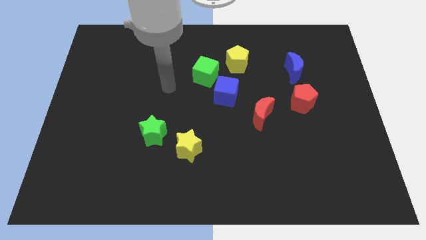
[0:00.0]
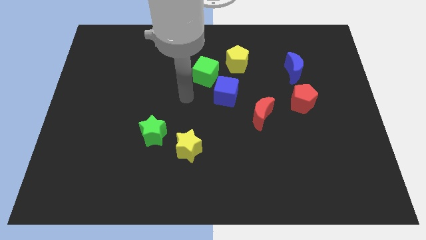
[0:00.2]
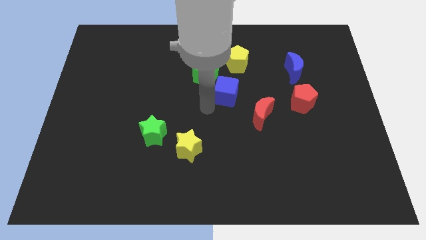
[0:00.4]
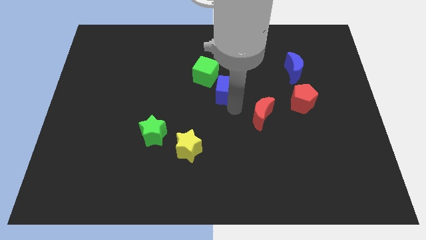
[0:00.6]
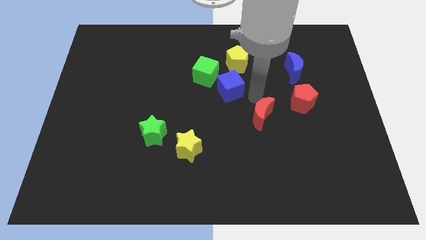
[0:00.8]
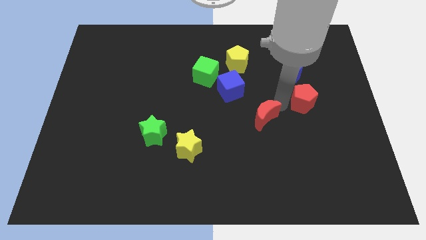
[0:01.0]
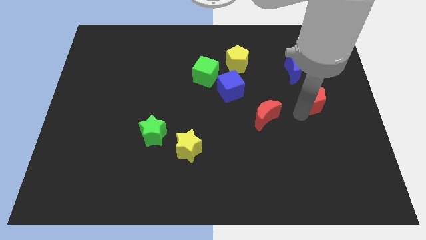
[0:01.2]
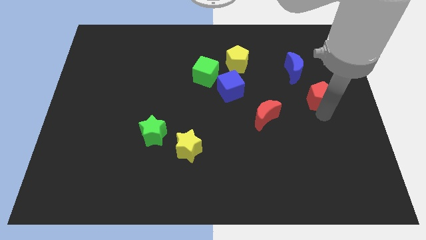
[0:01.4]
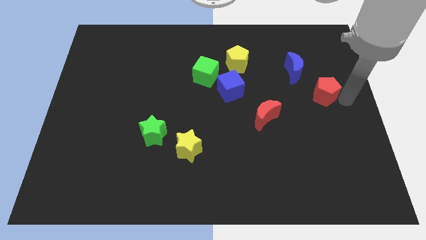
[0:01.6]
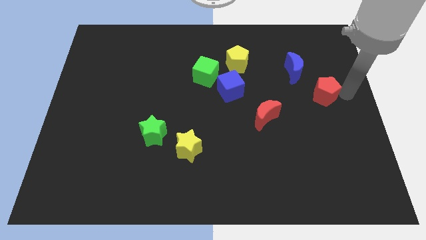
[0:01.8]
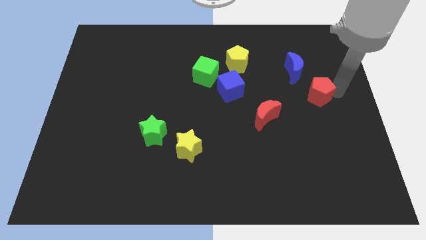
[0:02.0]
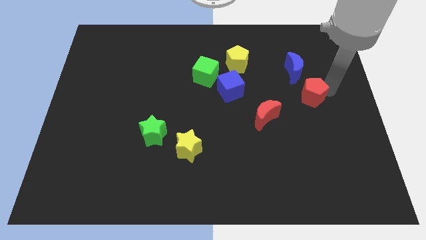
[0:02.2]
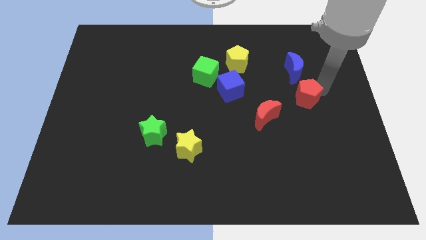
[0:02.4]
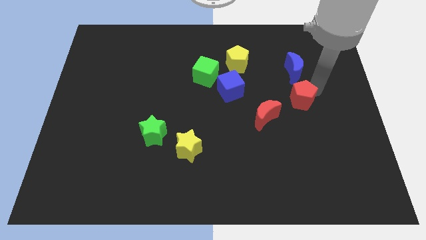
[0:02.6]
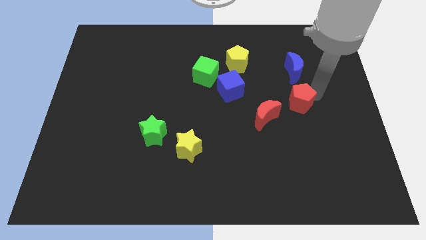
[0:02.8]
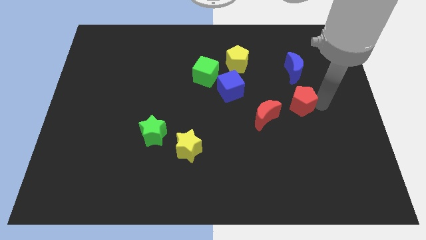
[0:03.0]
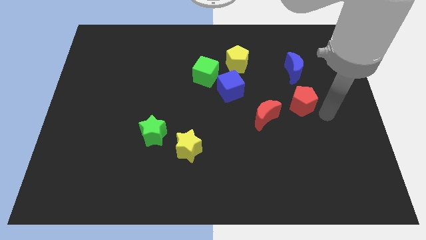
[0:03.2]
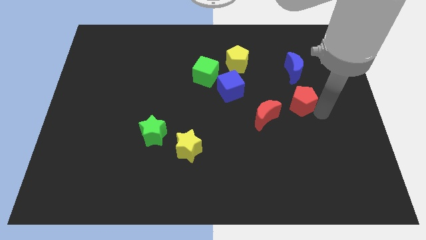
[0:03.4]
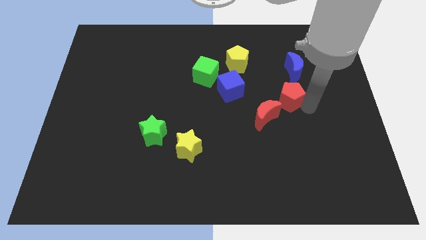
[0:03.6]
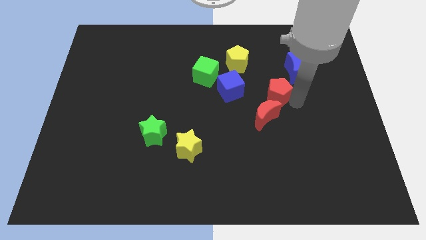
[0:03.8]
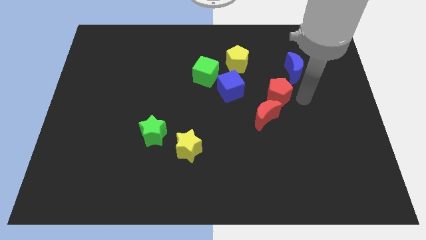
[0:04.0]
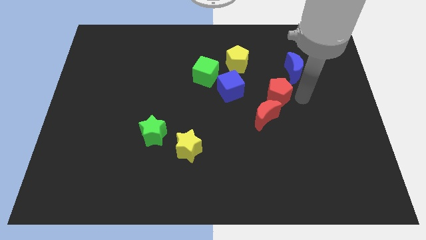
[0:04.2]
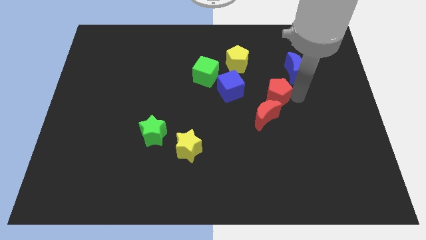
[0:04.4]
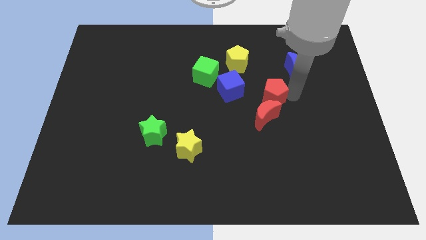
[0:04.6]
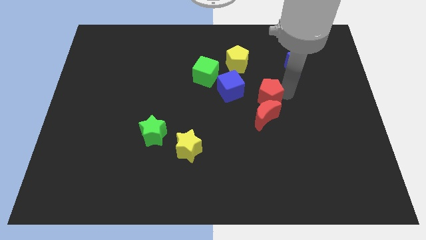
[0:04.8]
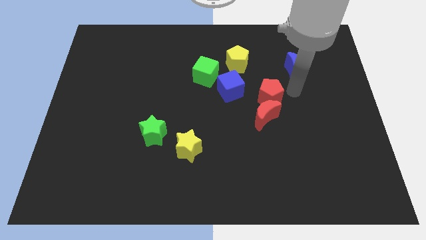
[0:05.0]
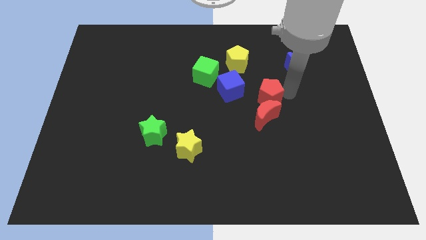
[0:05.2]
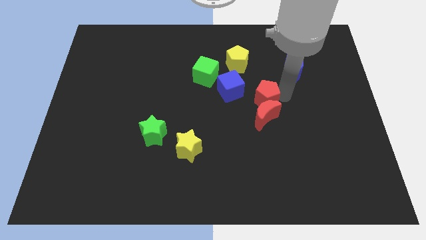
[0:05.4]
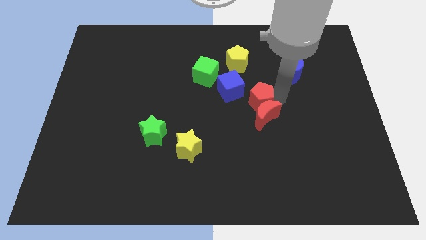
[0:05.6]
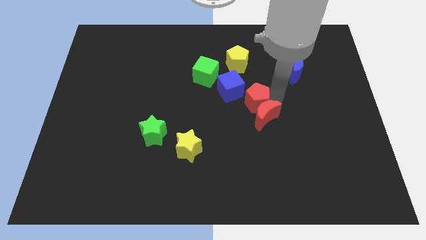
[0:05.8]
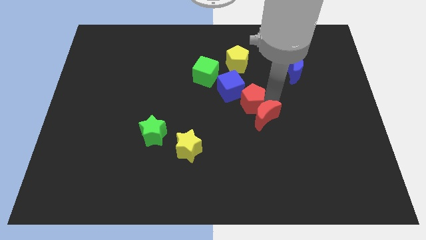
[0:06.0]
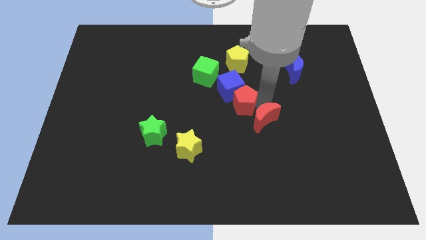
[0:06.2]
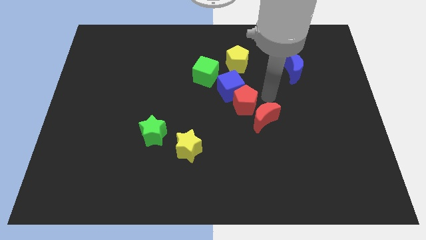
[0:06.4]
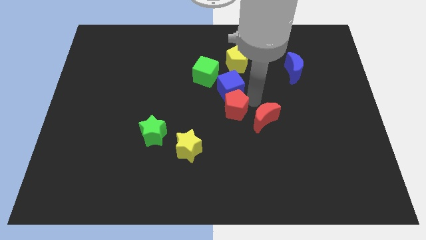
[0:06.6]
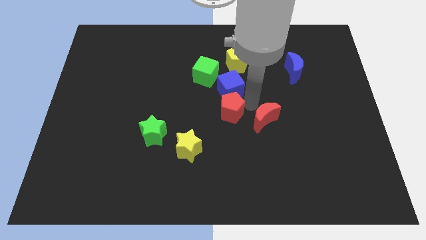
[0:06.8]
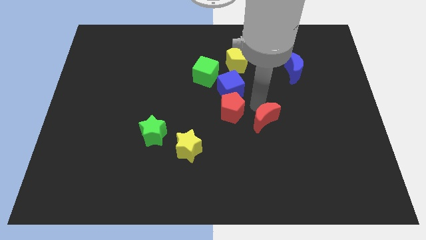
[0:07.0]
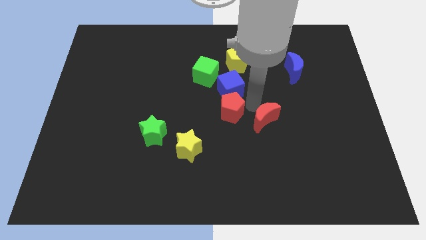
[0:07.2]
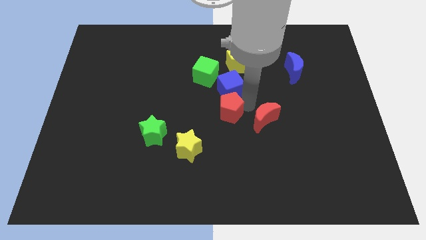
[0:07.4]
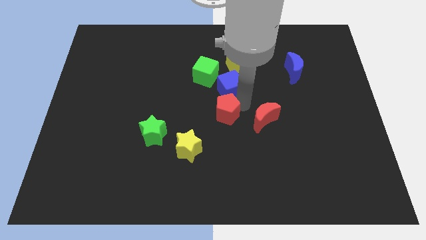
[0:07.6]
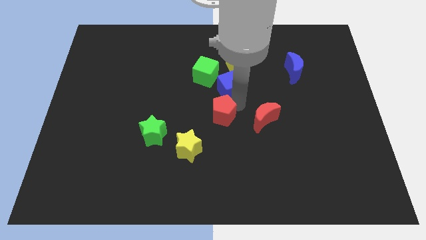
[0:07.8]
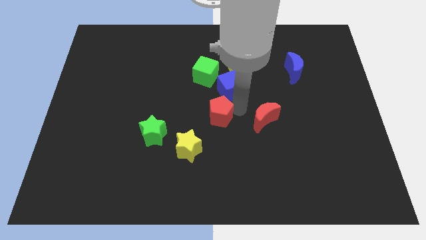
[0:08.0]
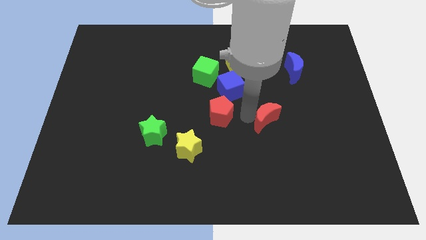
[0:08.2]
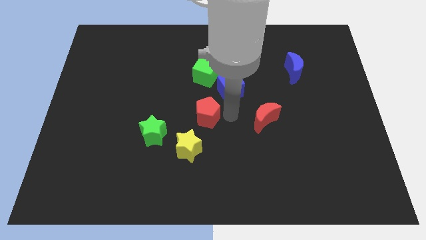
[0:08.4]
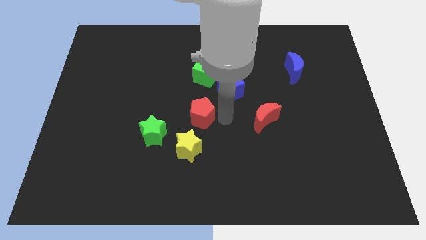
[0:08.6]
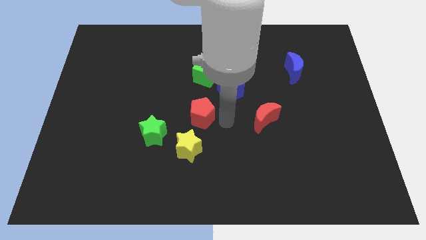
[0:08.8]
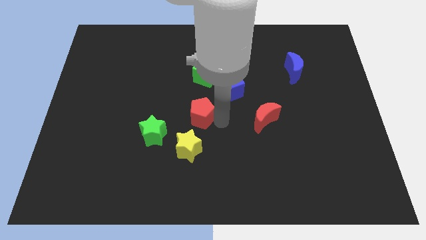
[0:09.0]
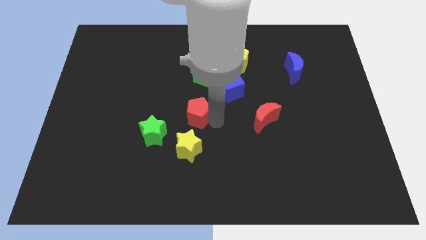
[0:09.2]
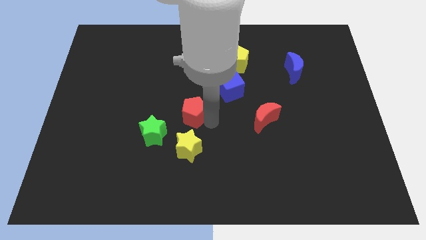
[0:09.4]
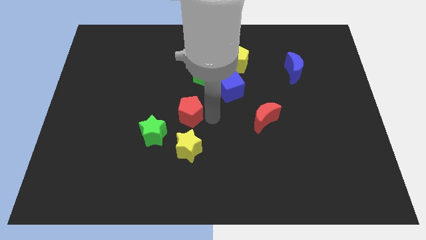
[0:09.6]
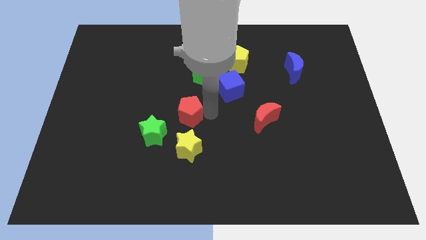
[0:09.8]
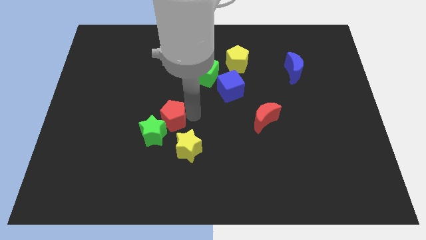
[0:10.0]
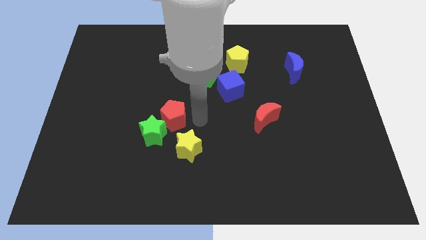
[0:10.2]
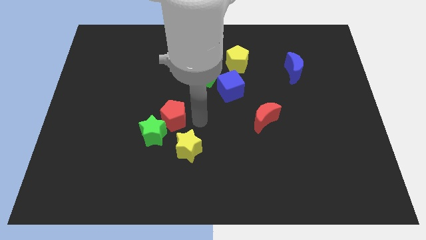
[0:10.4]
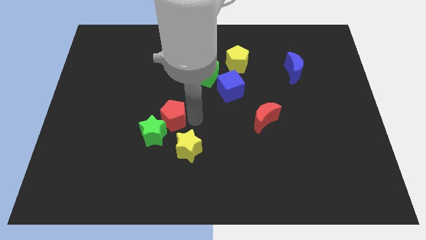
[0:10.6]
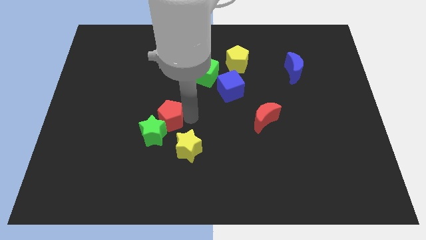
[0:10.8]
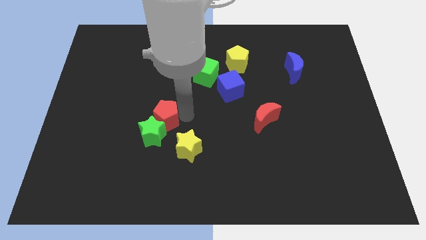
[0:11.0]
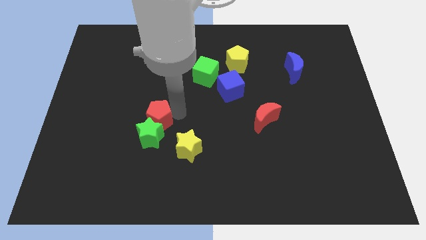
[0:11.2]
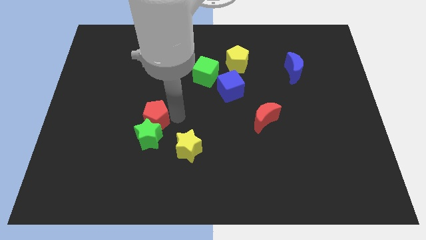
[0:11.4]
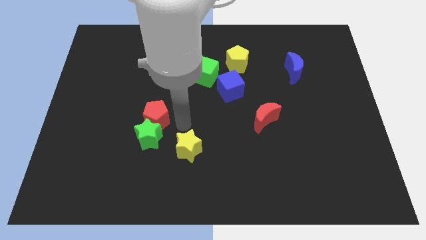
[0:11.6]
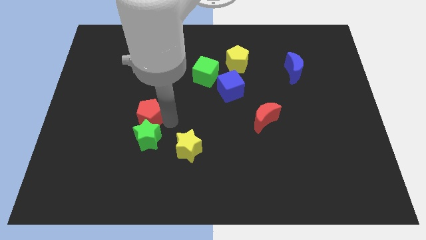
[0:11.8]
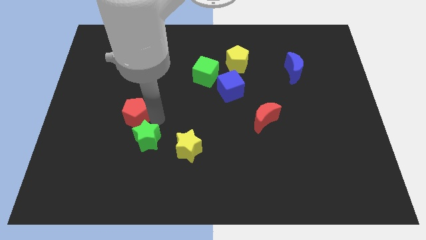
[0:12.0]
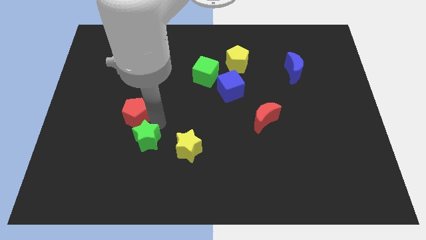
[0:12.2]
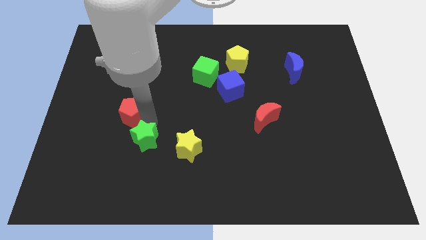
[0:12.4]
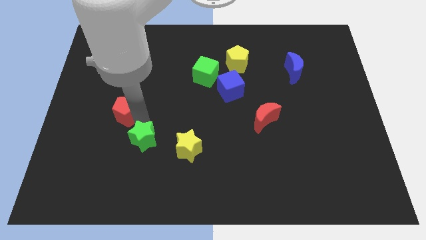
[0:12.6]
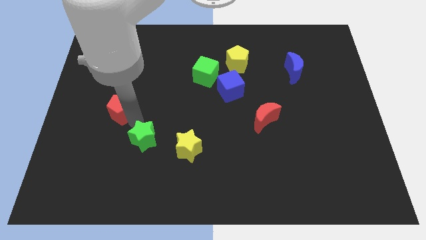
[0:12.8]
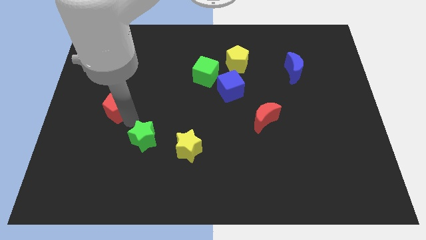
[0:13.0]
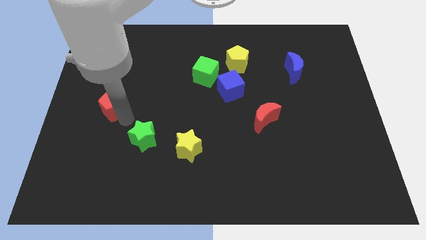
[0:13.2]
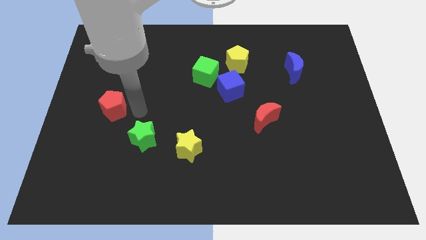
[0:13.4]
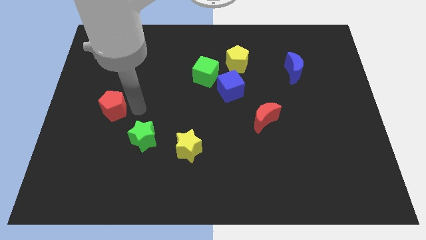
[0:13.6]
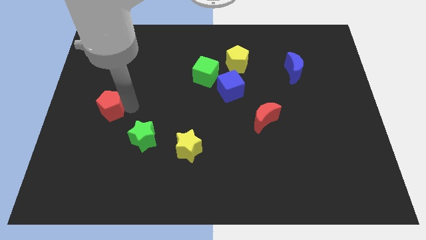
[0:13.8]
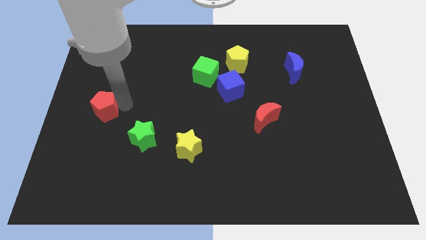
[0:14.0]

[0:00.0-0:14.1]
push the red pentagon to the center left
